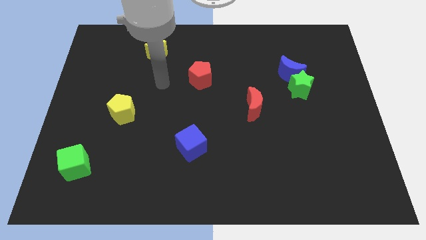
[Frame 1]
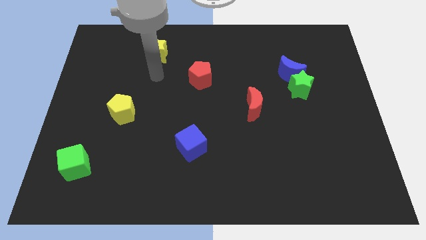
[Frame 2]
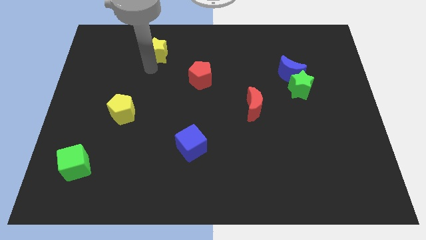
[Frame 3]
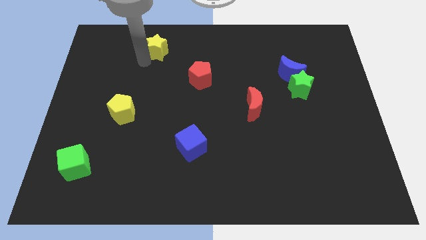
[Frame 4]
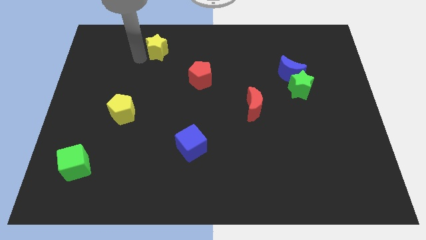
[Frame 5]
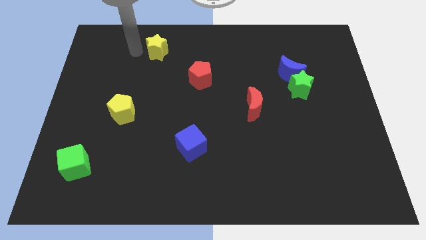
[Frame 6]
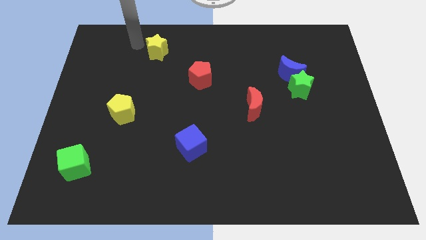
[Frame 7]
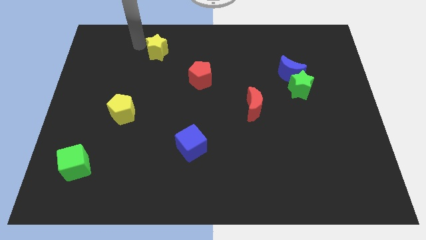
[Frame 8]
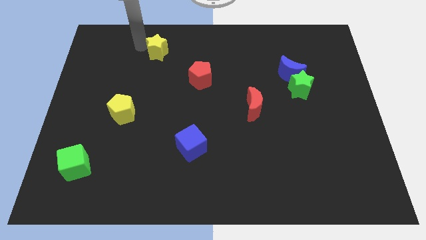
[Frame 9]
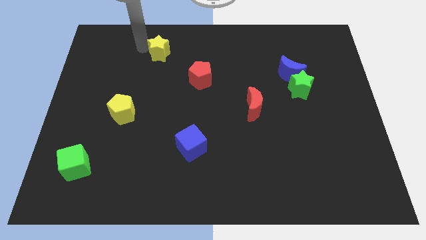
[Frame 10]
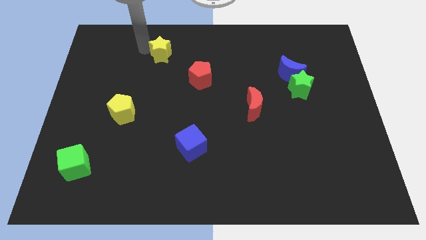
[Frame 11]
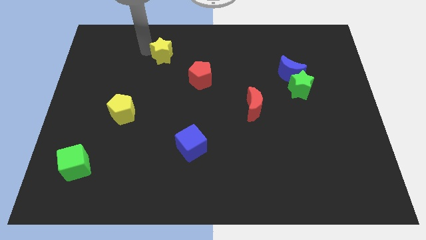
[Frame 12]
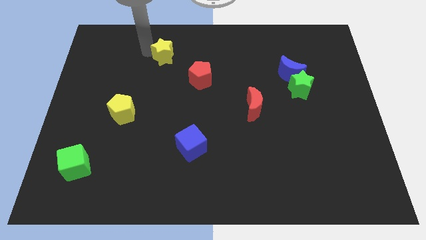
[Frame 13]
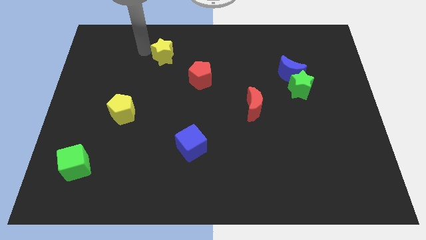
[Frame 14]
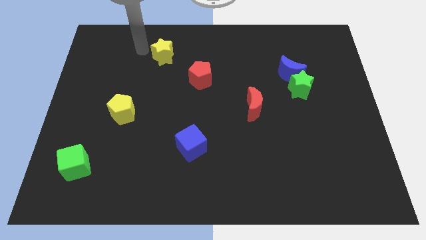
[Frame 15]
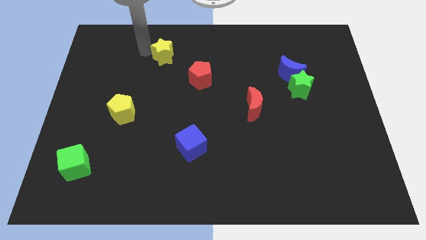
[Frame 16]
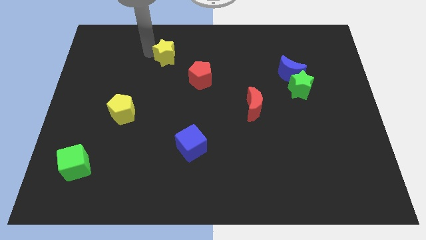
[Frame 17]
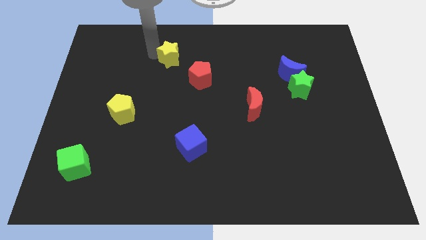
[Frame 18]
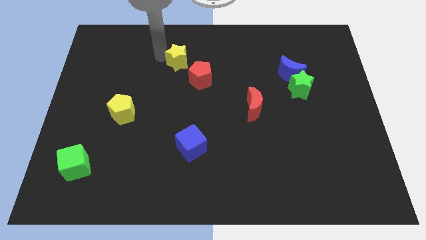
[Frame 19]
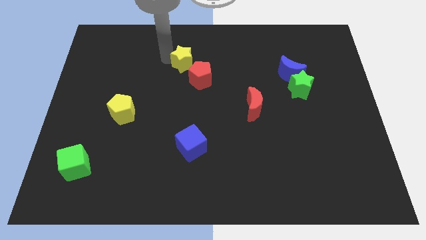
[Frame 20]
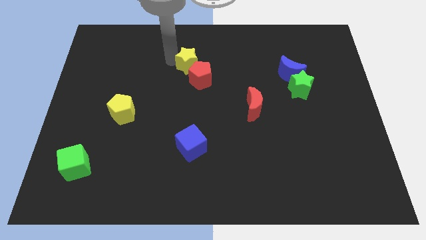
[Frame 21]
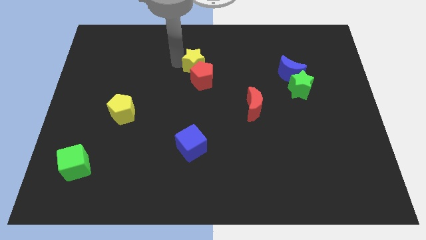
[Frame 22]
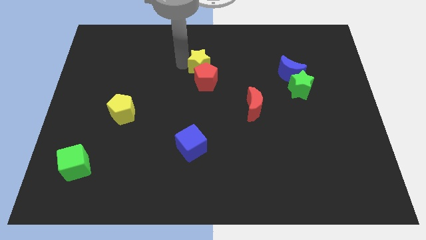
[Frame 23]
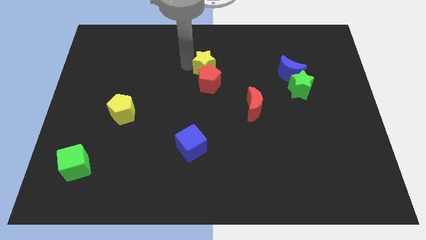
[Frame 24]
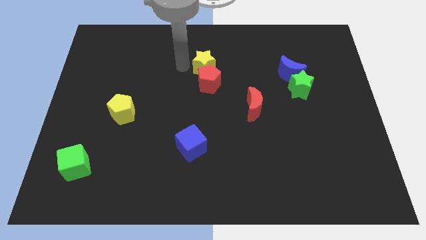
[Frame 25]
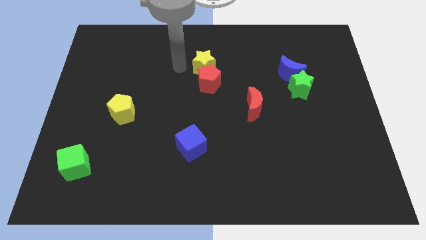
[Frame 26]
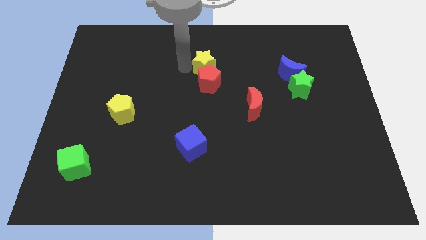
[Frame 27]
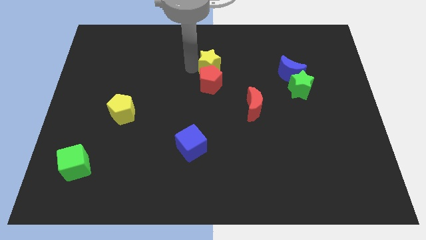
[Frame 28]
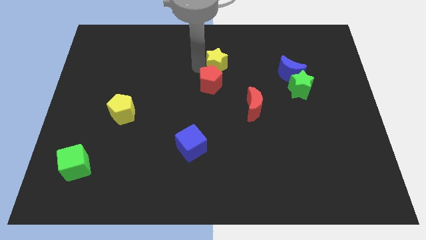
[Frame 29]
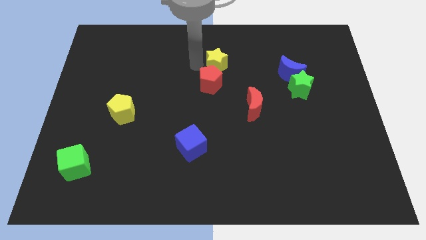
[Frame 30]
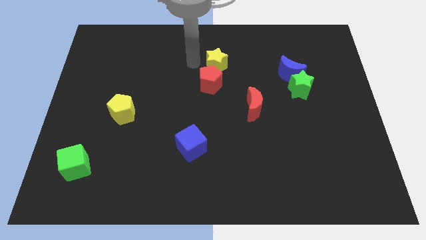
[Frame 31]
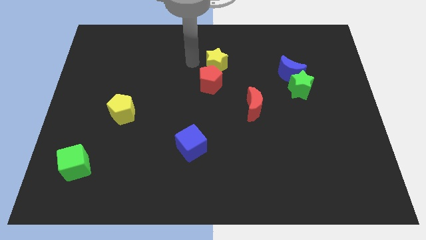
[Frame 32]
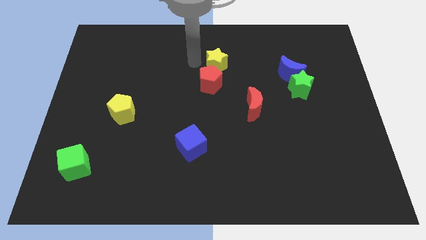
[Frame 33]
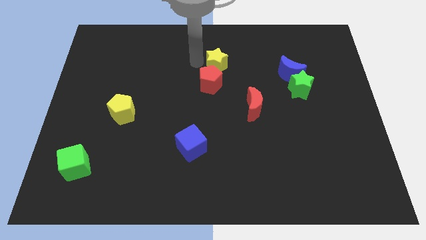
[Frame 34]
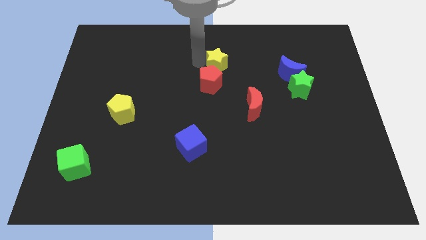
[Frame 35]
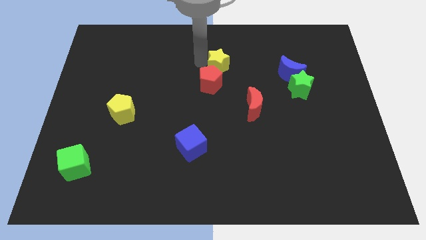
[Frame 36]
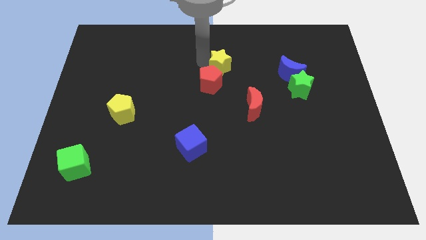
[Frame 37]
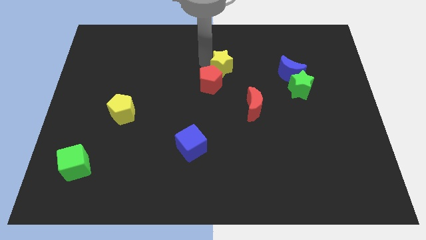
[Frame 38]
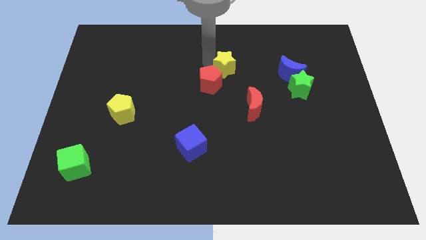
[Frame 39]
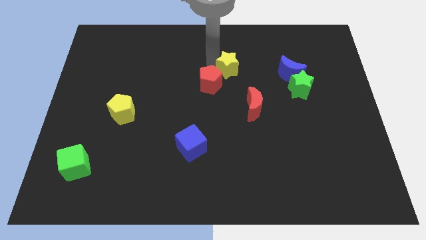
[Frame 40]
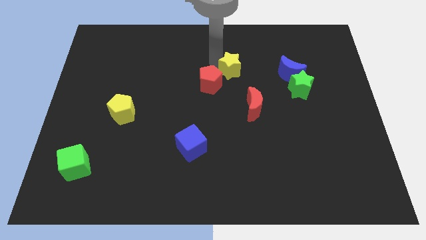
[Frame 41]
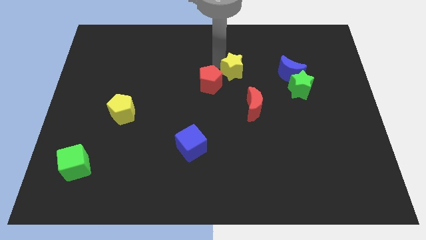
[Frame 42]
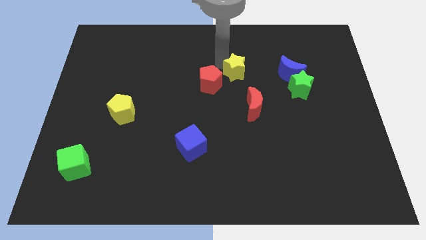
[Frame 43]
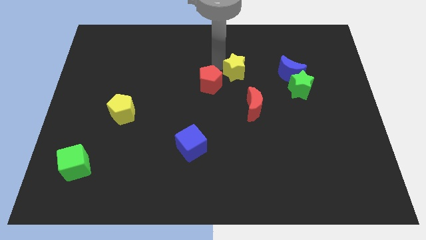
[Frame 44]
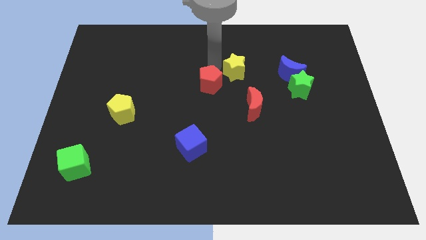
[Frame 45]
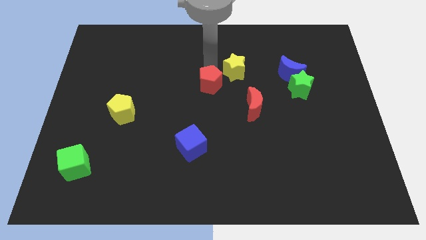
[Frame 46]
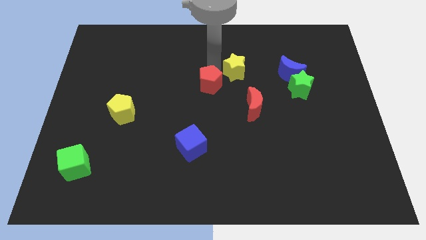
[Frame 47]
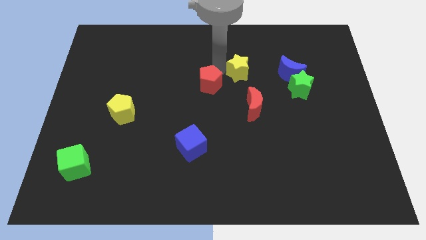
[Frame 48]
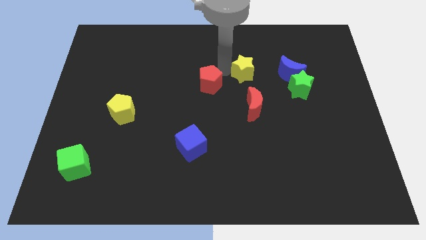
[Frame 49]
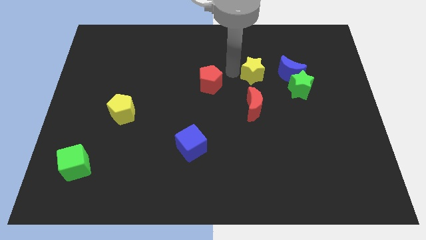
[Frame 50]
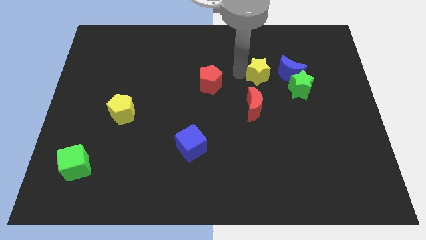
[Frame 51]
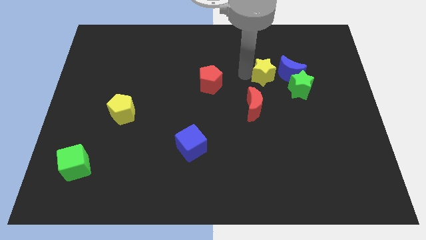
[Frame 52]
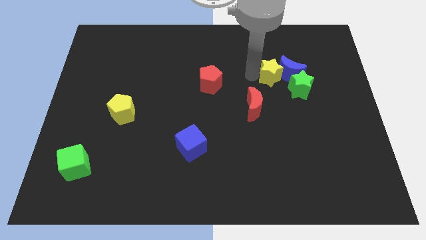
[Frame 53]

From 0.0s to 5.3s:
slide the yellow star towards the blue moon

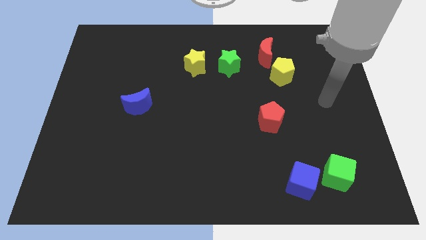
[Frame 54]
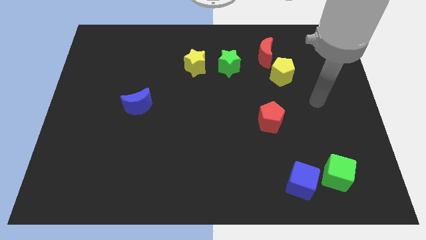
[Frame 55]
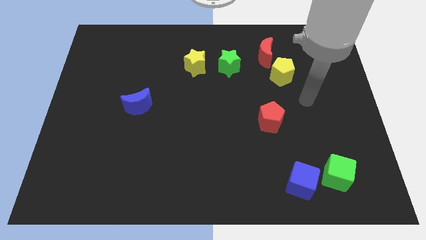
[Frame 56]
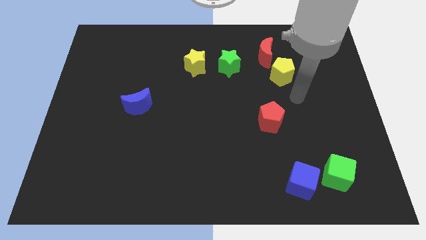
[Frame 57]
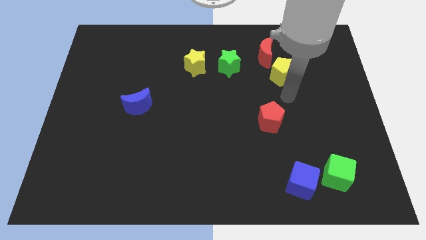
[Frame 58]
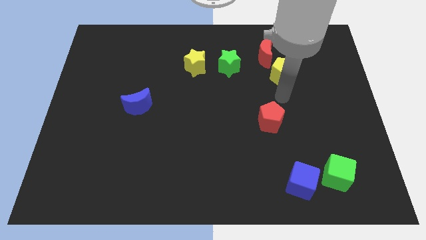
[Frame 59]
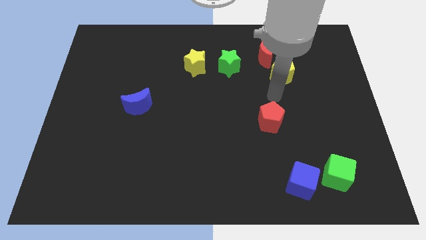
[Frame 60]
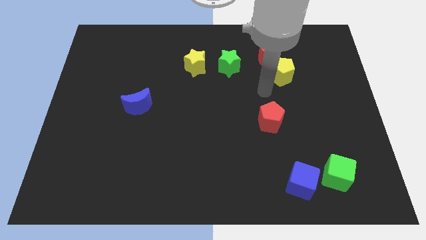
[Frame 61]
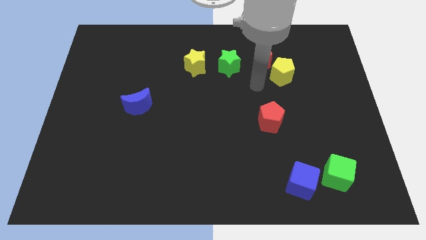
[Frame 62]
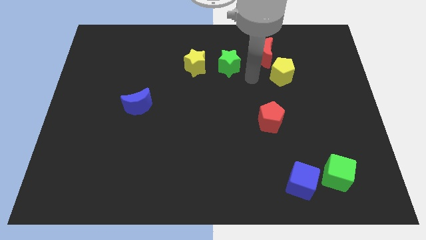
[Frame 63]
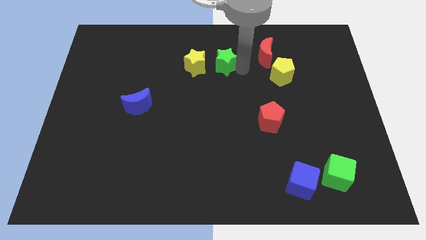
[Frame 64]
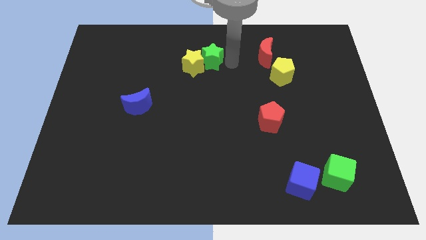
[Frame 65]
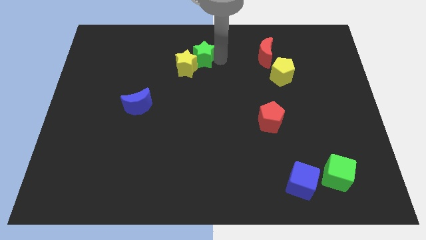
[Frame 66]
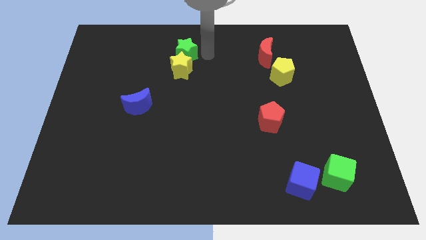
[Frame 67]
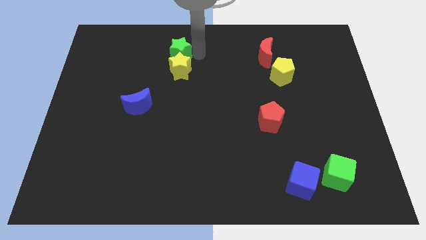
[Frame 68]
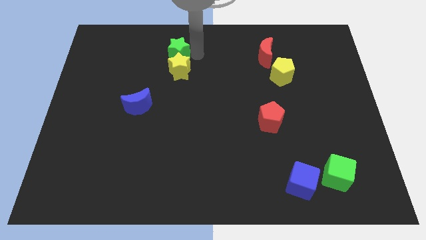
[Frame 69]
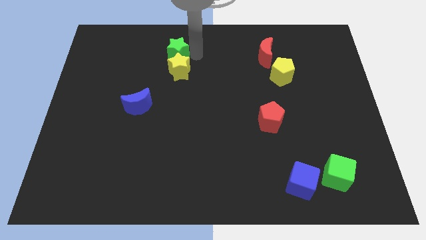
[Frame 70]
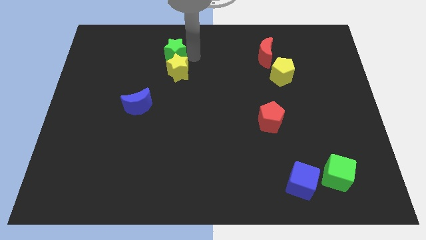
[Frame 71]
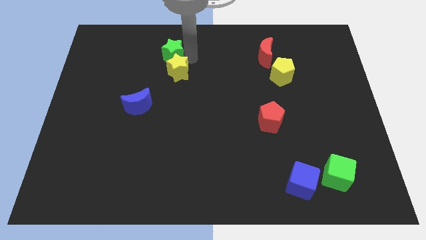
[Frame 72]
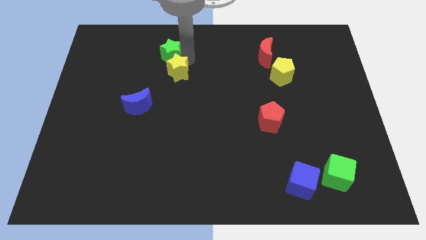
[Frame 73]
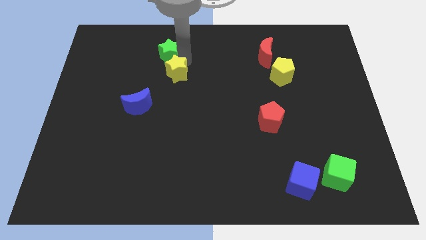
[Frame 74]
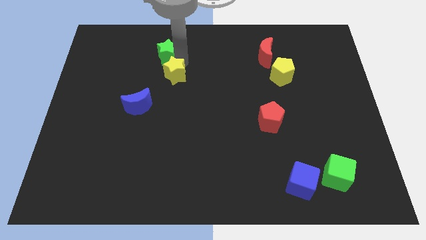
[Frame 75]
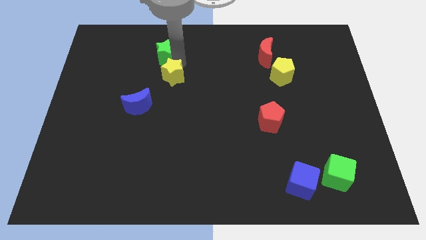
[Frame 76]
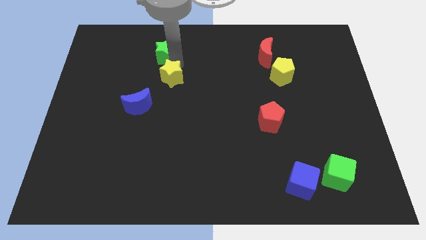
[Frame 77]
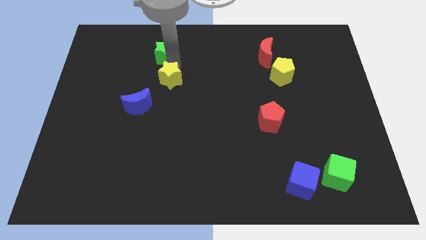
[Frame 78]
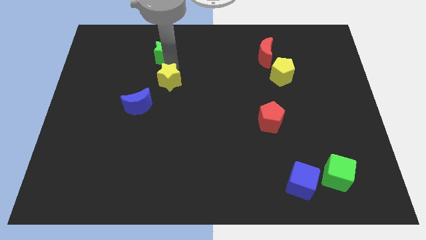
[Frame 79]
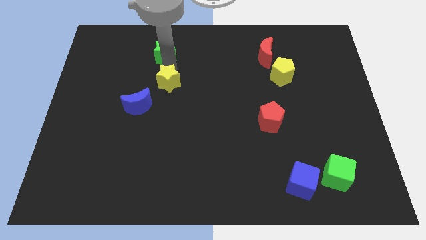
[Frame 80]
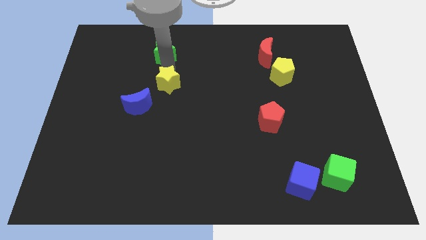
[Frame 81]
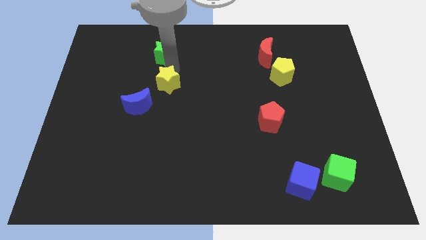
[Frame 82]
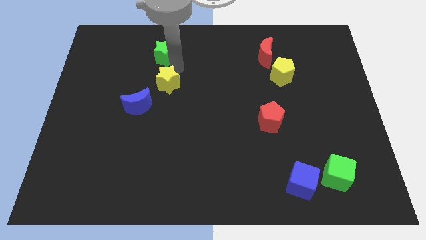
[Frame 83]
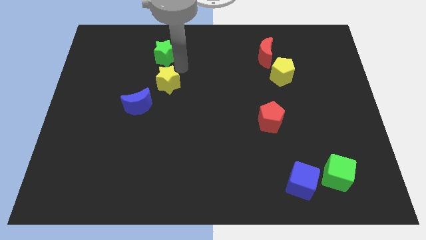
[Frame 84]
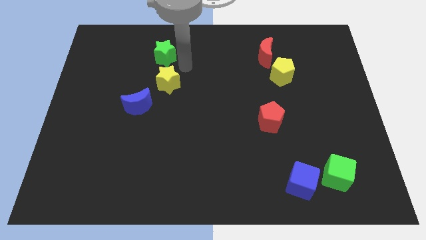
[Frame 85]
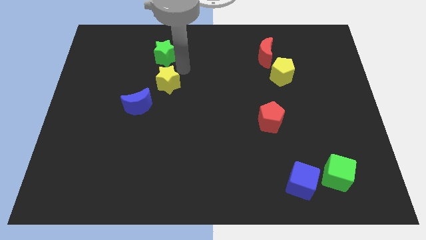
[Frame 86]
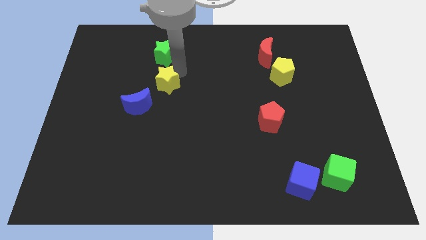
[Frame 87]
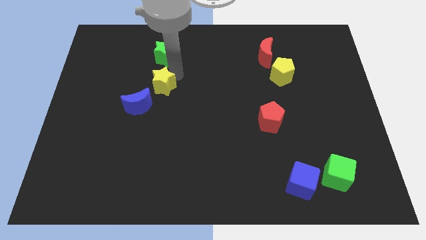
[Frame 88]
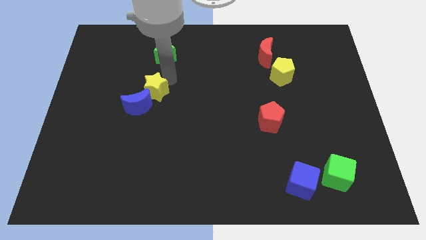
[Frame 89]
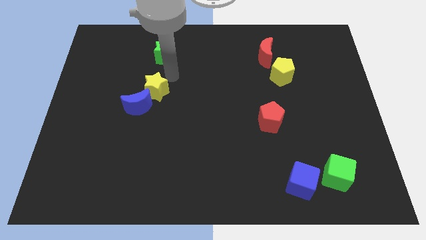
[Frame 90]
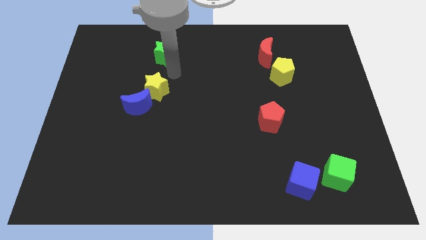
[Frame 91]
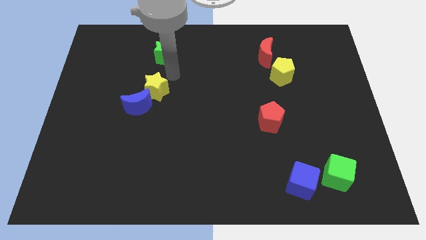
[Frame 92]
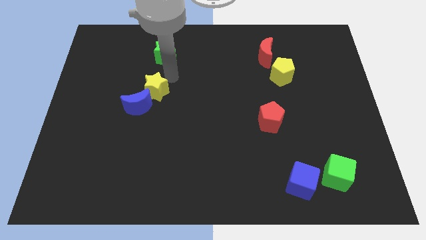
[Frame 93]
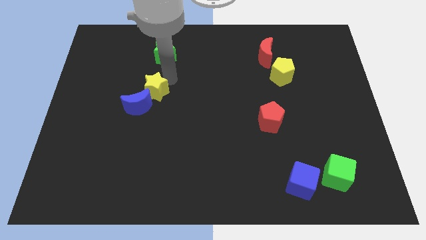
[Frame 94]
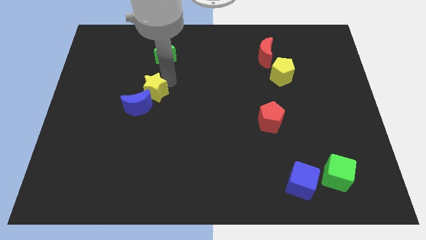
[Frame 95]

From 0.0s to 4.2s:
slide the yellow star to the blue moon
